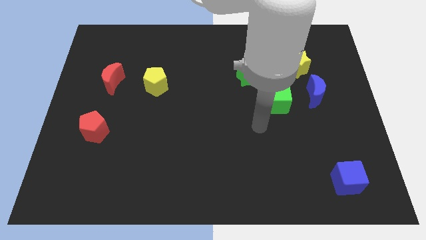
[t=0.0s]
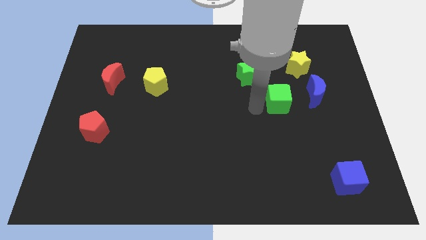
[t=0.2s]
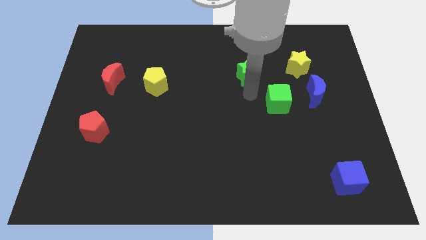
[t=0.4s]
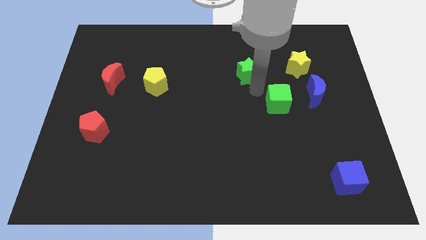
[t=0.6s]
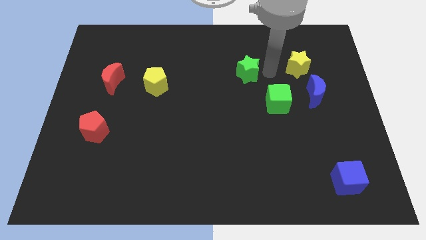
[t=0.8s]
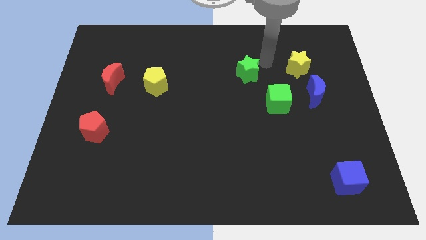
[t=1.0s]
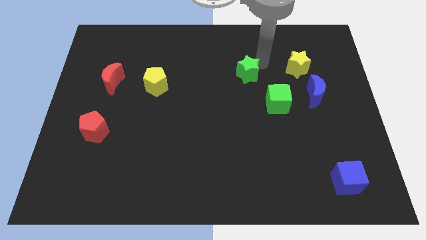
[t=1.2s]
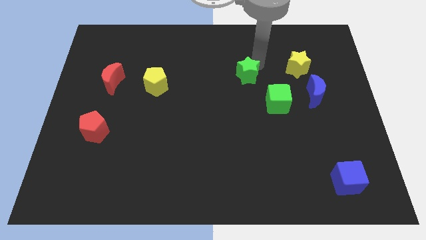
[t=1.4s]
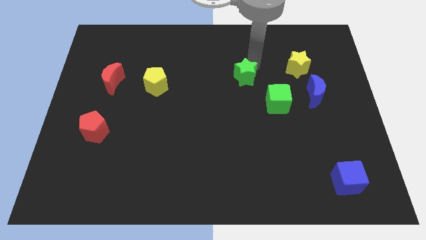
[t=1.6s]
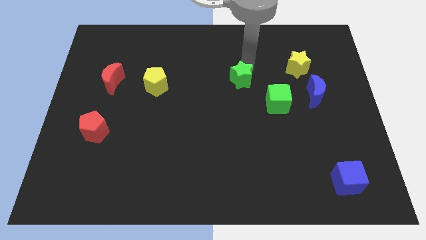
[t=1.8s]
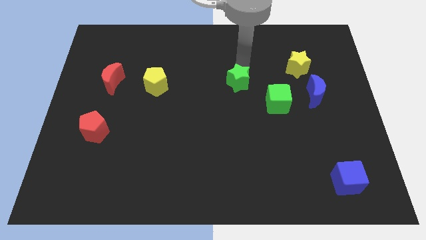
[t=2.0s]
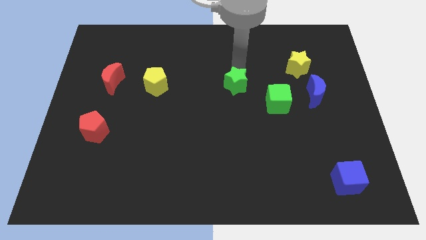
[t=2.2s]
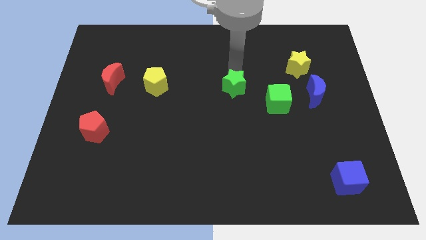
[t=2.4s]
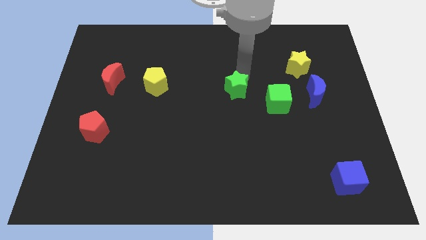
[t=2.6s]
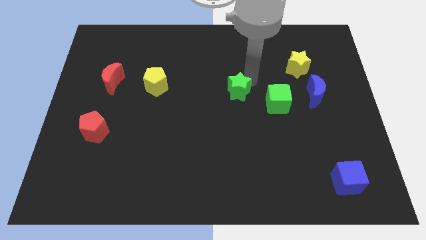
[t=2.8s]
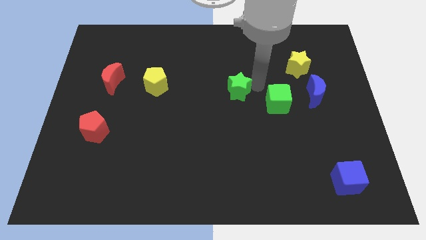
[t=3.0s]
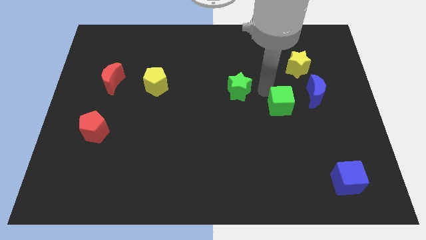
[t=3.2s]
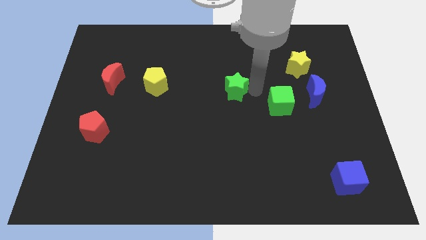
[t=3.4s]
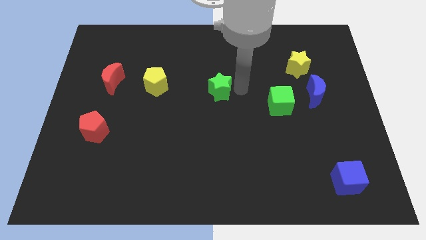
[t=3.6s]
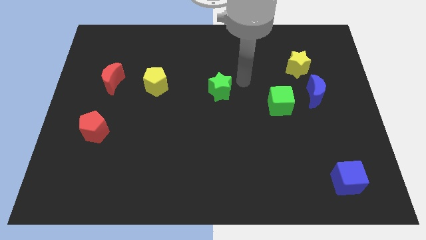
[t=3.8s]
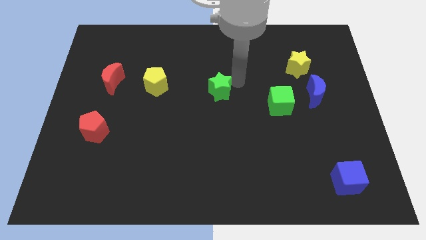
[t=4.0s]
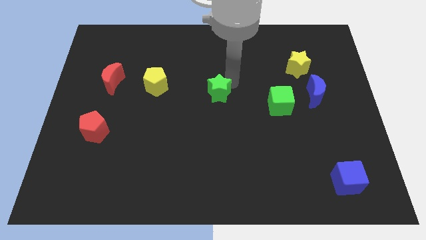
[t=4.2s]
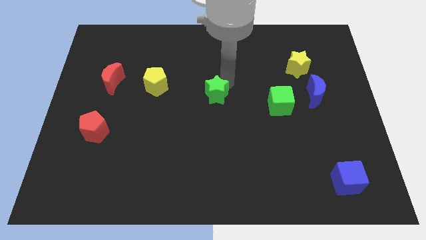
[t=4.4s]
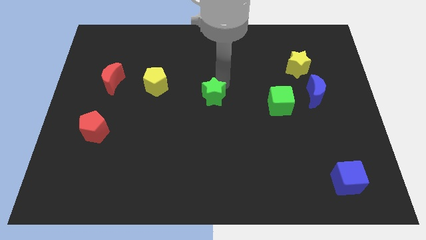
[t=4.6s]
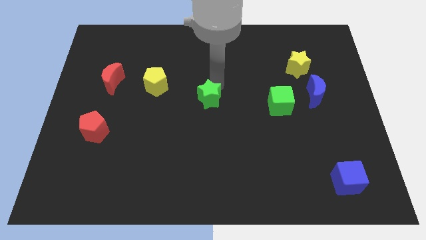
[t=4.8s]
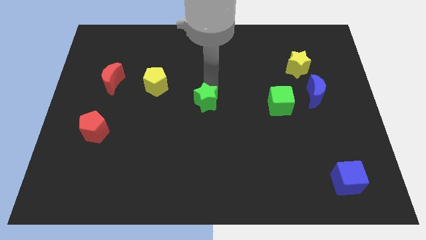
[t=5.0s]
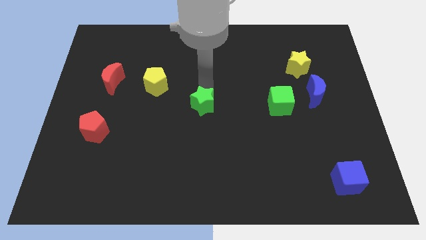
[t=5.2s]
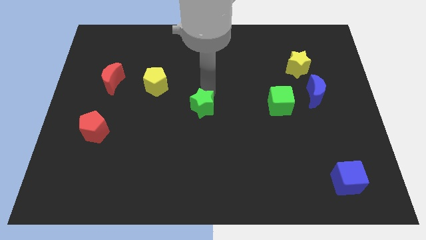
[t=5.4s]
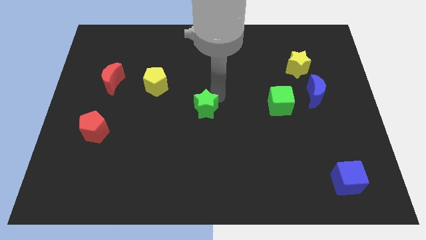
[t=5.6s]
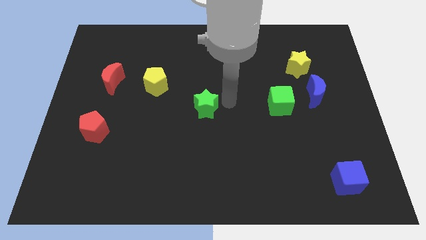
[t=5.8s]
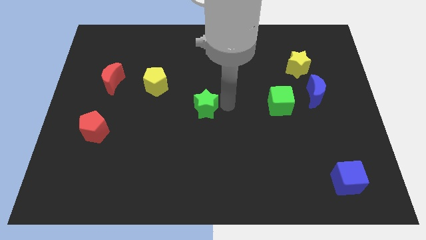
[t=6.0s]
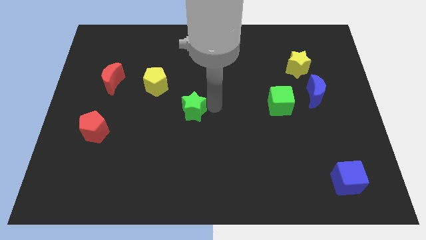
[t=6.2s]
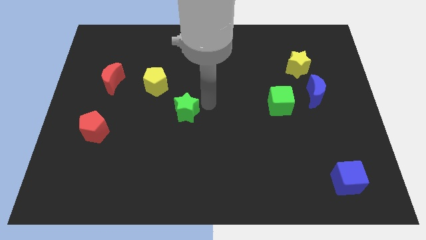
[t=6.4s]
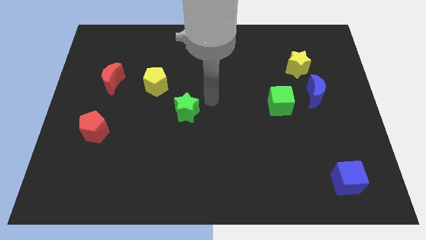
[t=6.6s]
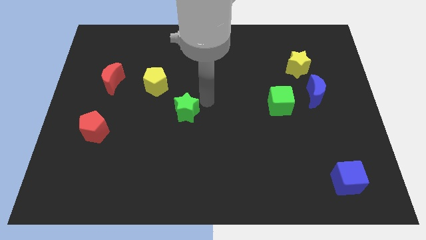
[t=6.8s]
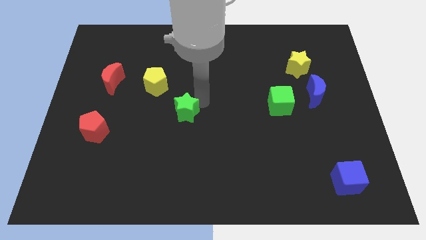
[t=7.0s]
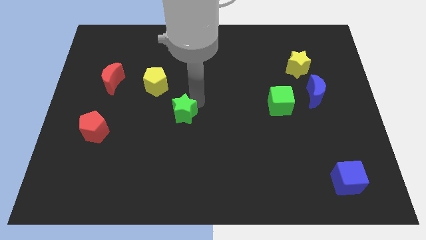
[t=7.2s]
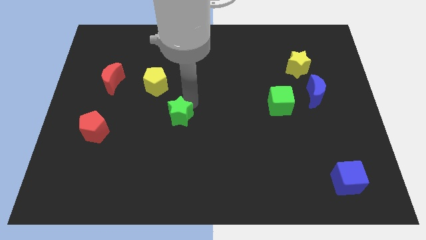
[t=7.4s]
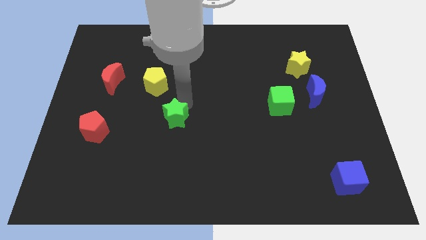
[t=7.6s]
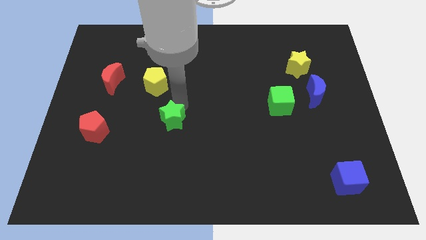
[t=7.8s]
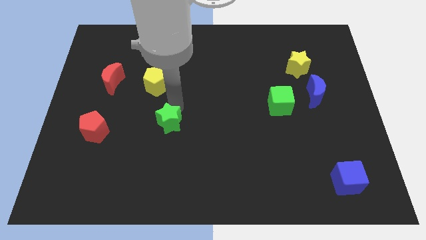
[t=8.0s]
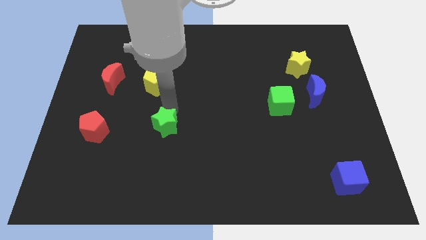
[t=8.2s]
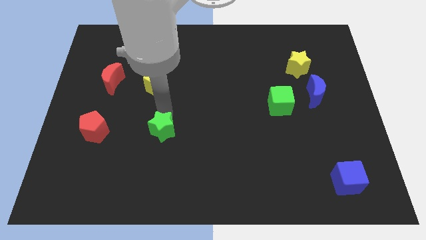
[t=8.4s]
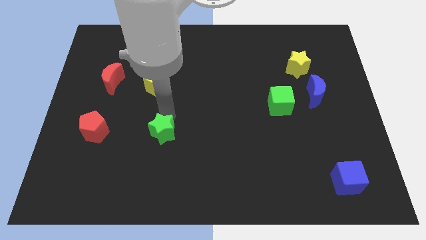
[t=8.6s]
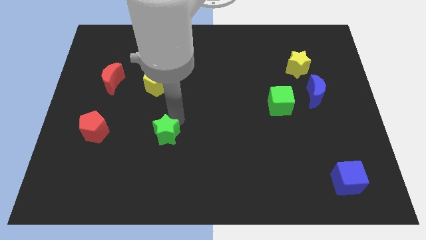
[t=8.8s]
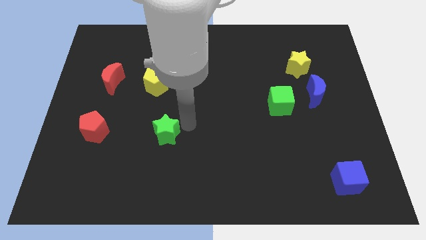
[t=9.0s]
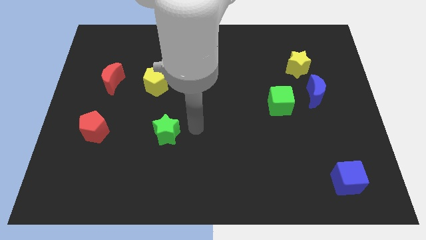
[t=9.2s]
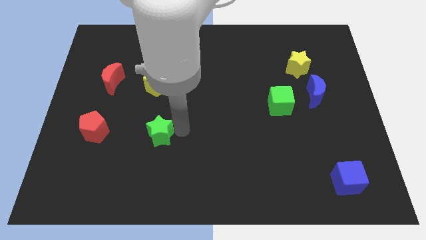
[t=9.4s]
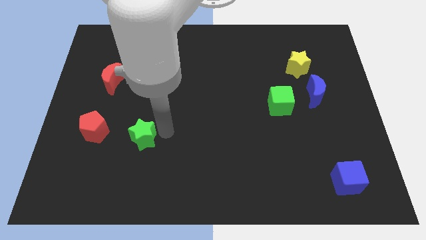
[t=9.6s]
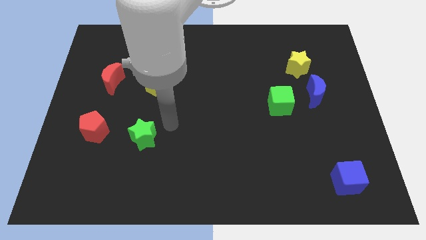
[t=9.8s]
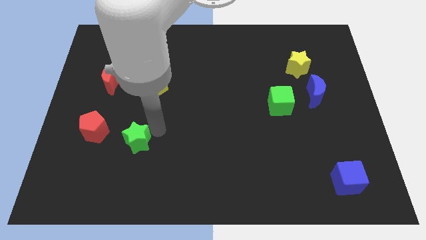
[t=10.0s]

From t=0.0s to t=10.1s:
move the green star to the bottom right side of the red pentagon

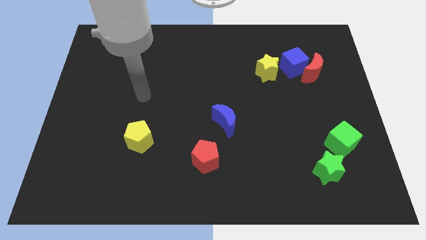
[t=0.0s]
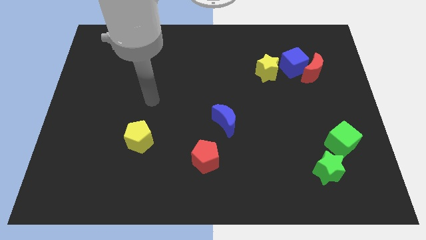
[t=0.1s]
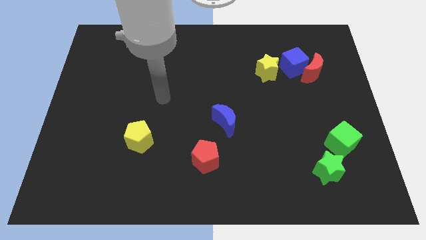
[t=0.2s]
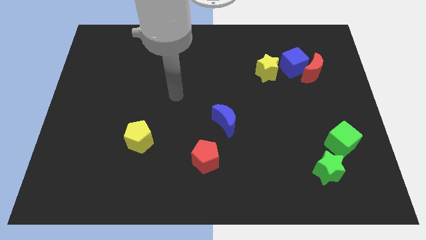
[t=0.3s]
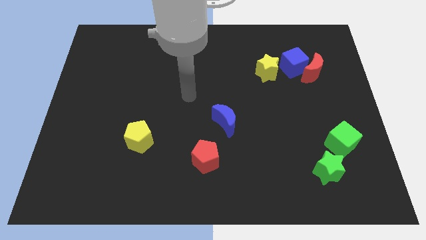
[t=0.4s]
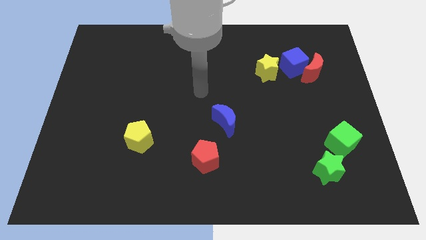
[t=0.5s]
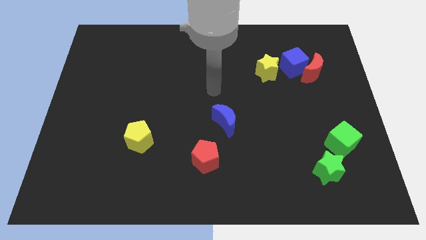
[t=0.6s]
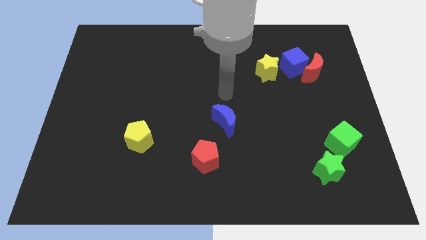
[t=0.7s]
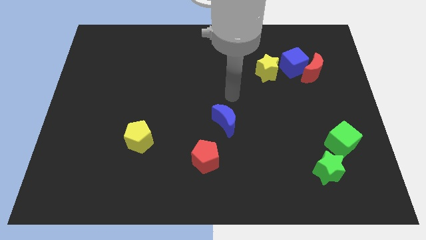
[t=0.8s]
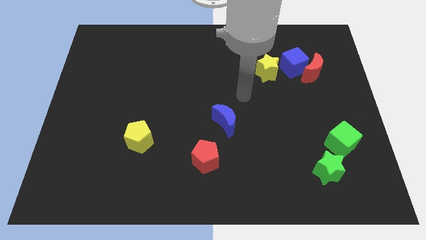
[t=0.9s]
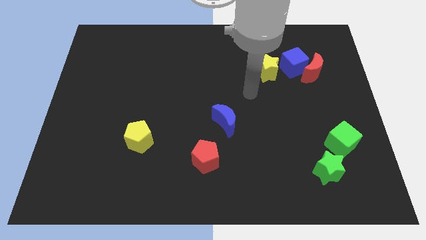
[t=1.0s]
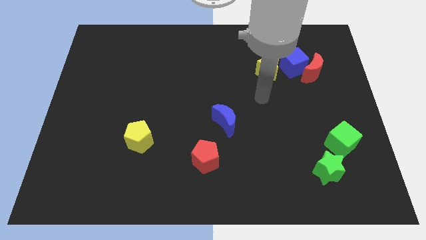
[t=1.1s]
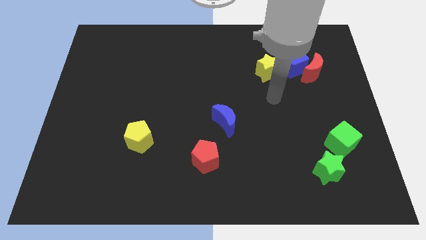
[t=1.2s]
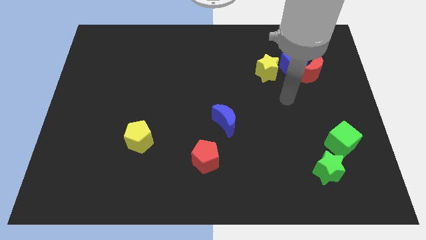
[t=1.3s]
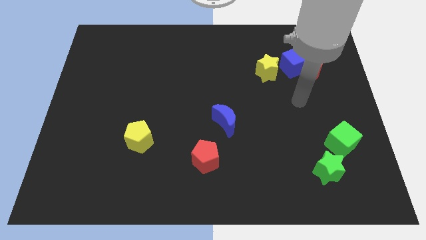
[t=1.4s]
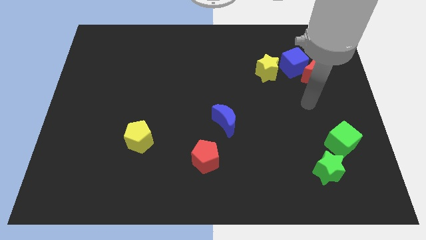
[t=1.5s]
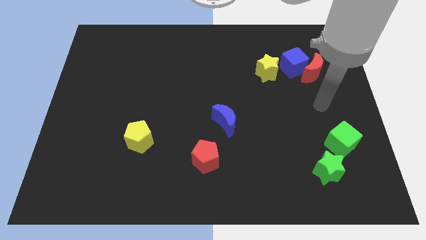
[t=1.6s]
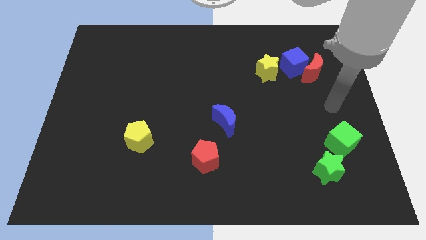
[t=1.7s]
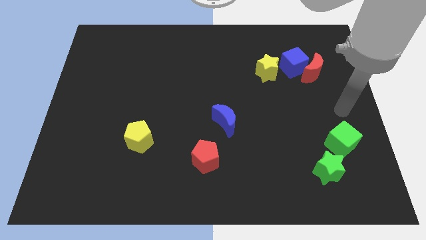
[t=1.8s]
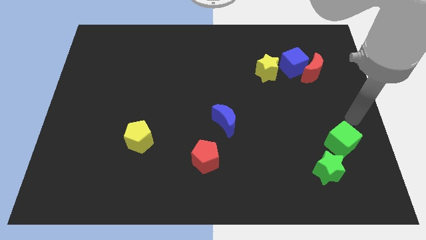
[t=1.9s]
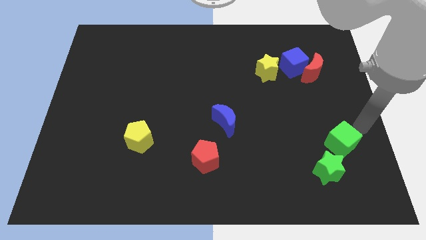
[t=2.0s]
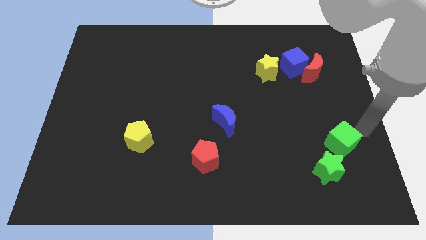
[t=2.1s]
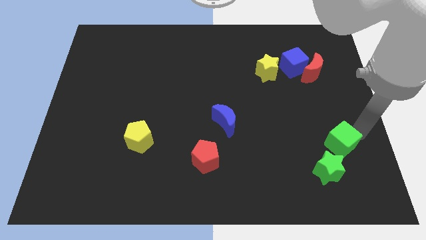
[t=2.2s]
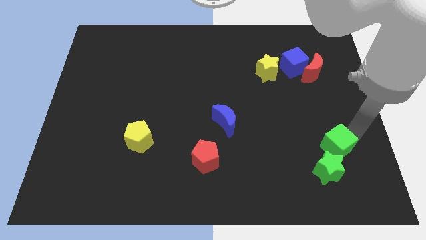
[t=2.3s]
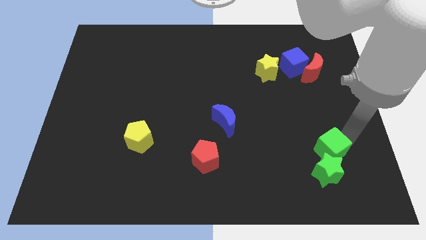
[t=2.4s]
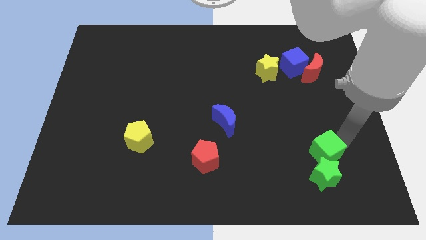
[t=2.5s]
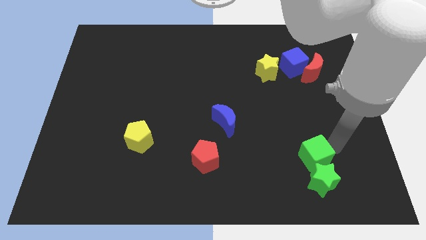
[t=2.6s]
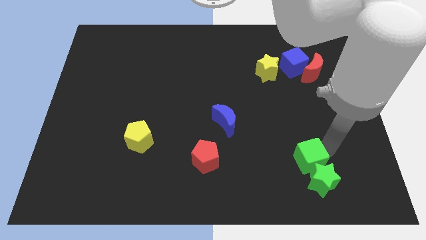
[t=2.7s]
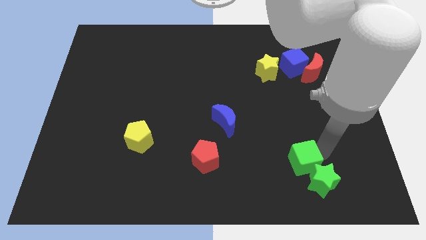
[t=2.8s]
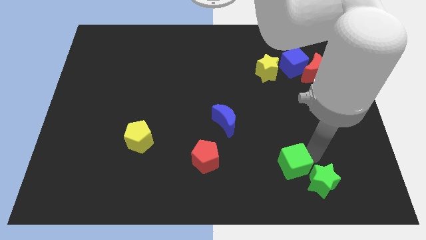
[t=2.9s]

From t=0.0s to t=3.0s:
slide the green cube to the left of the green star
